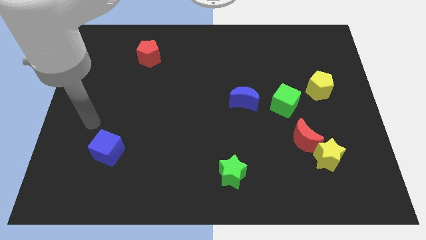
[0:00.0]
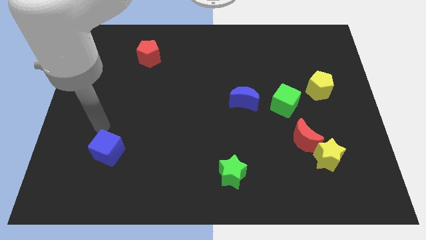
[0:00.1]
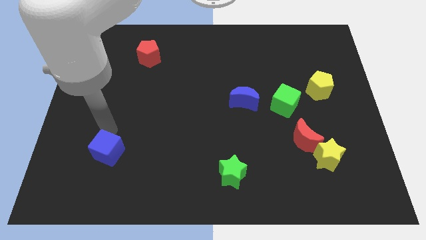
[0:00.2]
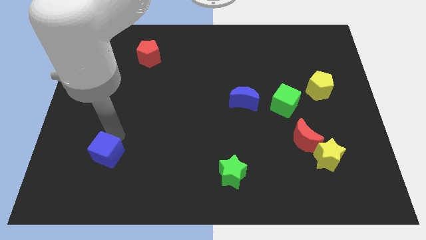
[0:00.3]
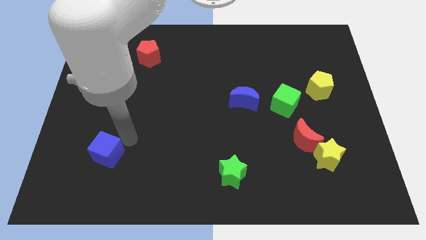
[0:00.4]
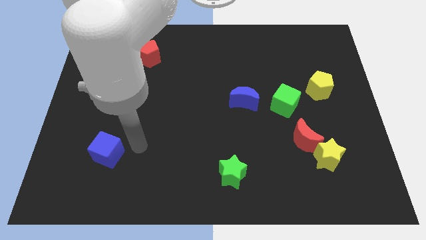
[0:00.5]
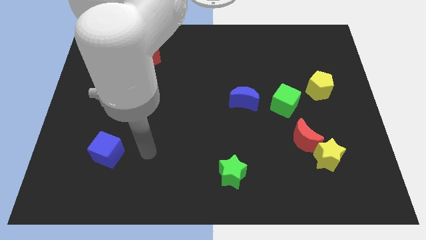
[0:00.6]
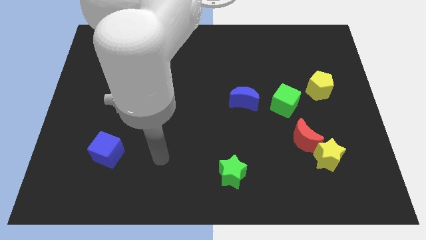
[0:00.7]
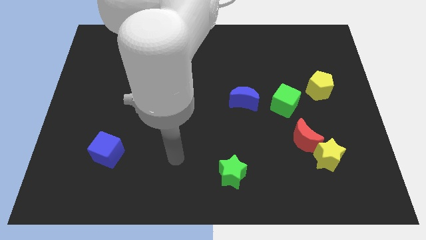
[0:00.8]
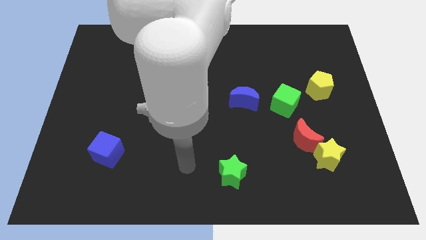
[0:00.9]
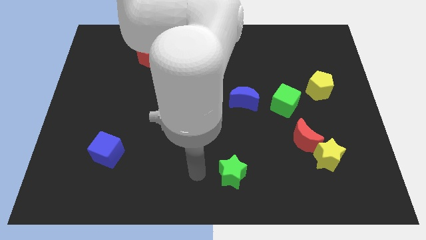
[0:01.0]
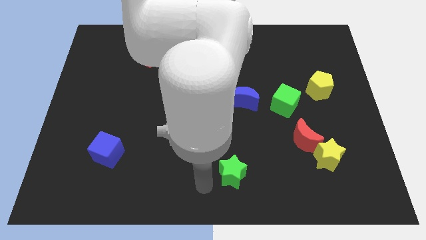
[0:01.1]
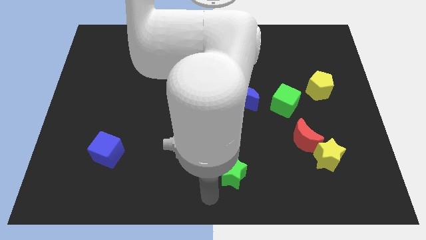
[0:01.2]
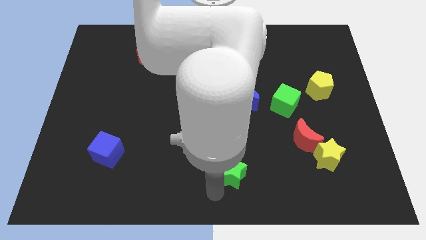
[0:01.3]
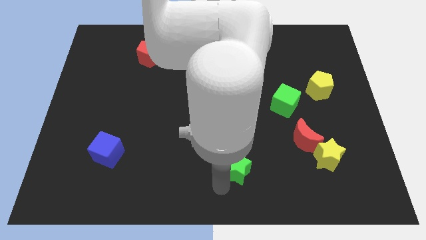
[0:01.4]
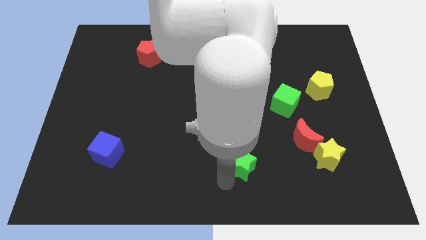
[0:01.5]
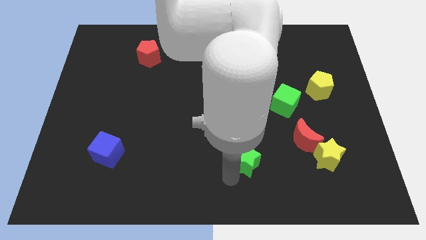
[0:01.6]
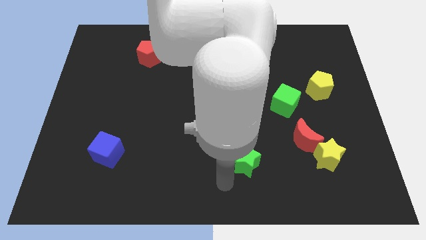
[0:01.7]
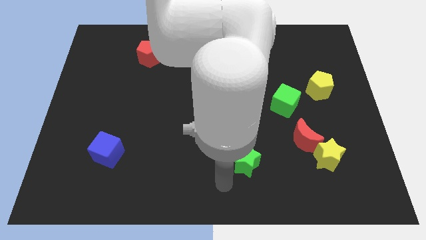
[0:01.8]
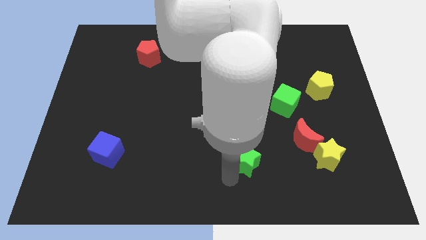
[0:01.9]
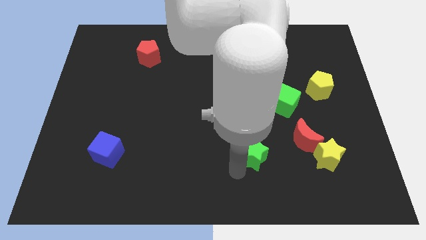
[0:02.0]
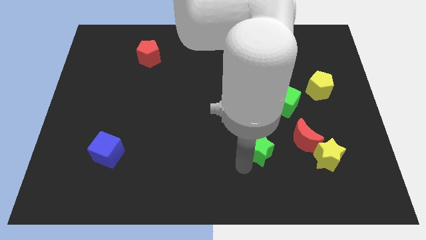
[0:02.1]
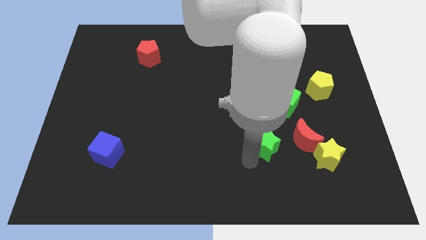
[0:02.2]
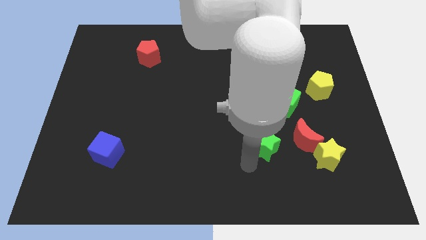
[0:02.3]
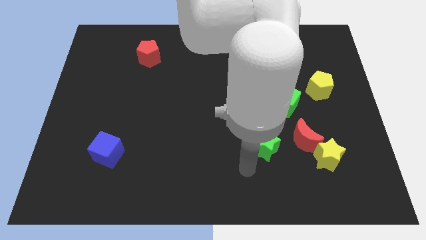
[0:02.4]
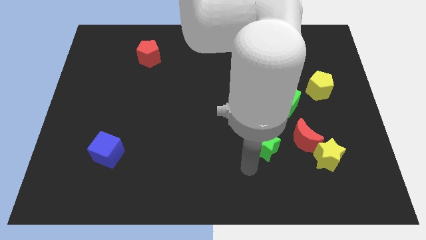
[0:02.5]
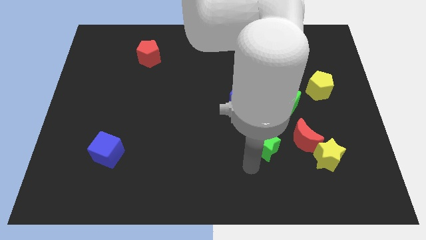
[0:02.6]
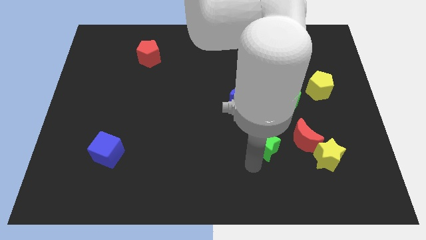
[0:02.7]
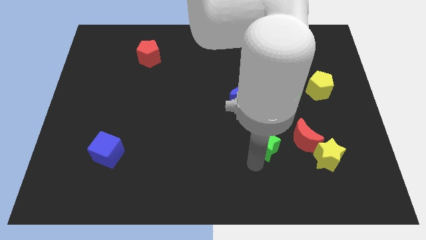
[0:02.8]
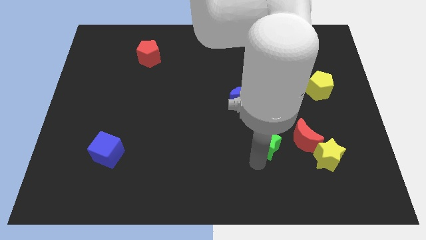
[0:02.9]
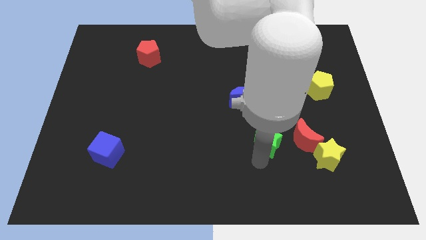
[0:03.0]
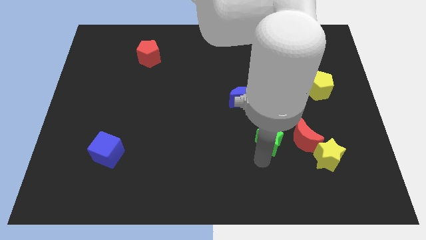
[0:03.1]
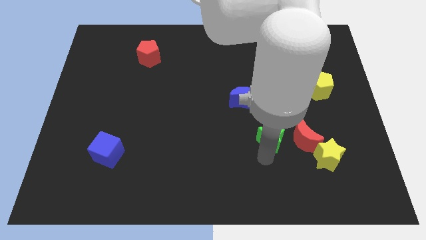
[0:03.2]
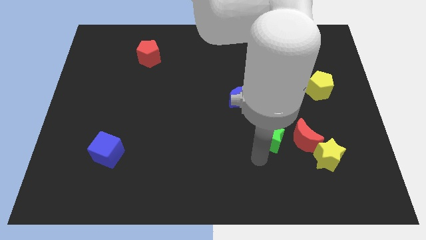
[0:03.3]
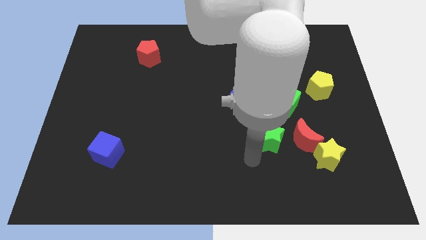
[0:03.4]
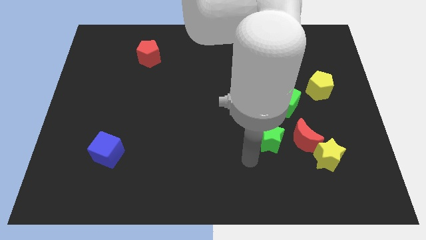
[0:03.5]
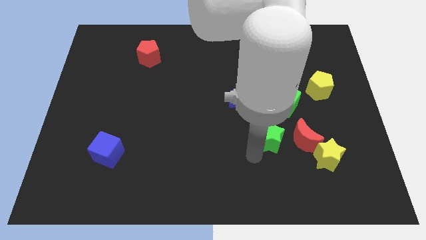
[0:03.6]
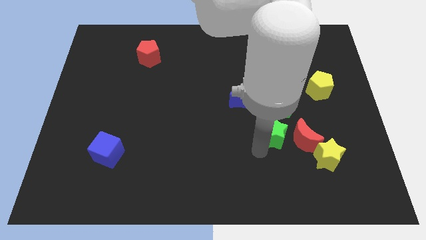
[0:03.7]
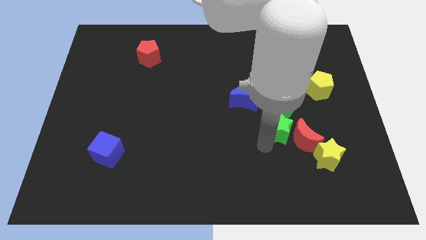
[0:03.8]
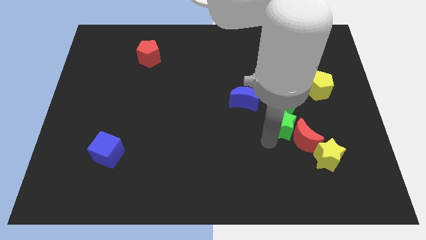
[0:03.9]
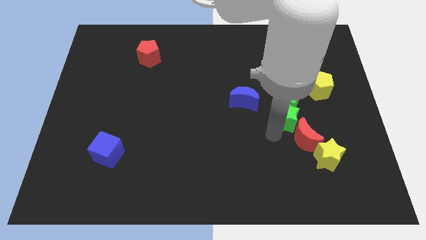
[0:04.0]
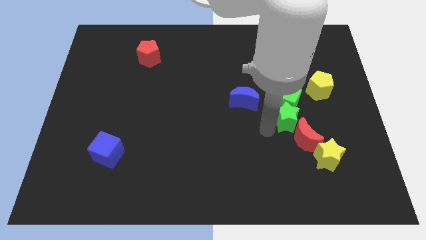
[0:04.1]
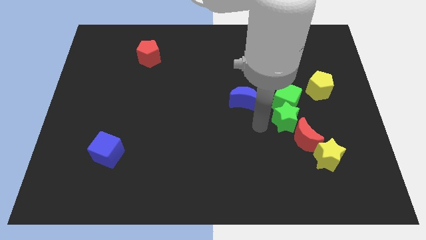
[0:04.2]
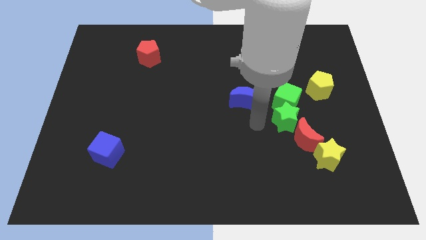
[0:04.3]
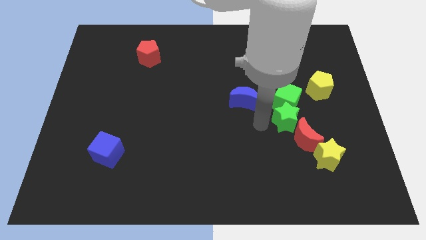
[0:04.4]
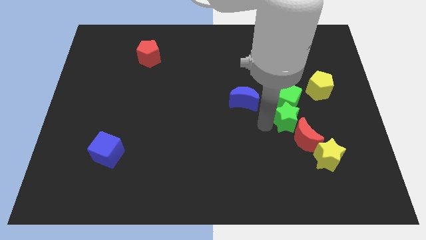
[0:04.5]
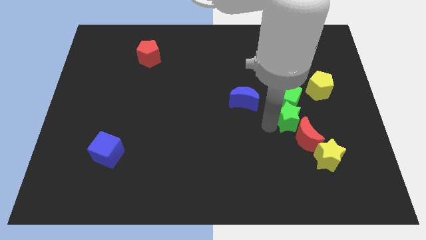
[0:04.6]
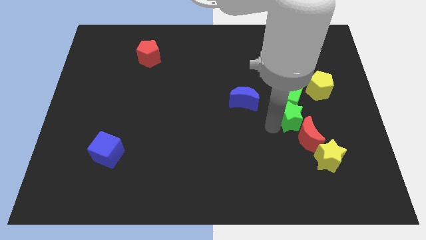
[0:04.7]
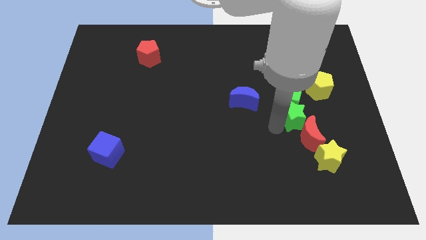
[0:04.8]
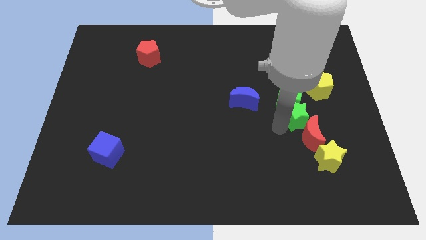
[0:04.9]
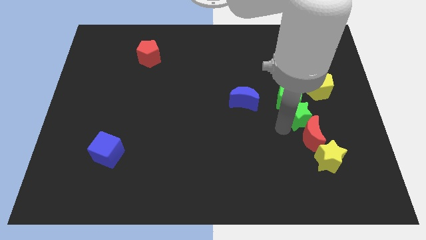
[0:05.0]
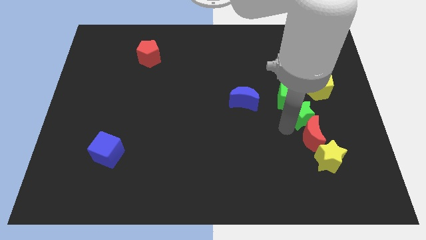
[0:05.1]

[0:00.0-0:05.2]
move the green star to the top of the yellow star

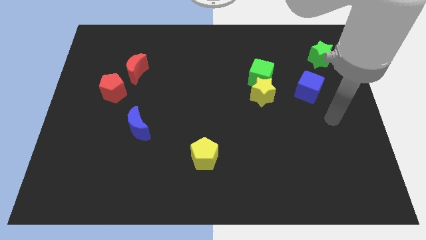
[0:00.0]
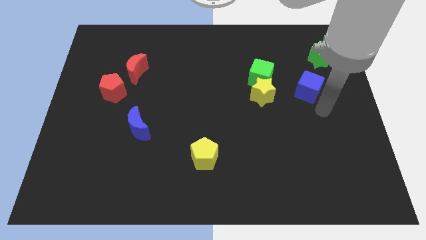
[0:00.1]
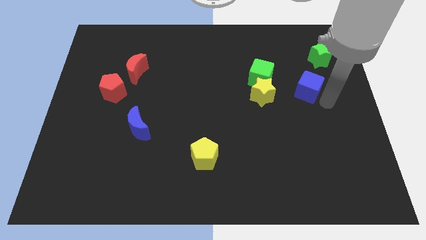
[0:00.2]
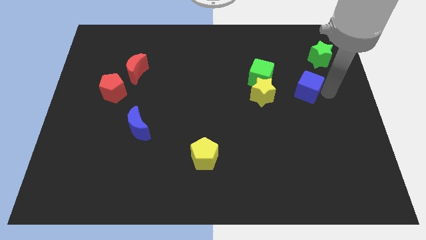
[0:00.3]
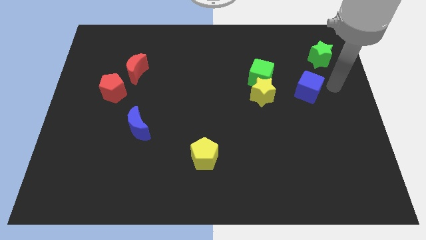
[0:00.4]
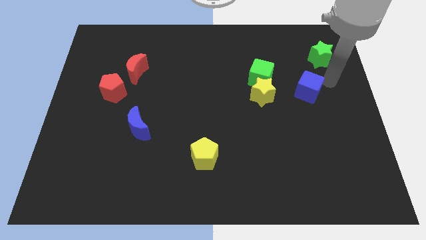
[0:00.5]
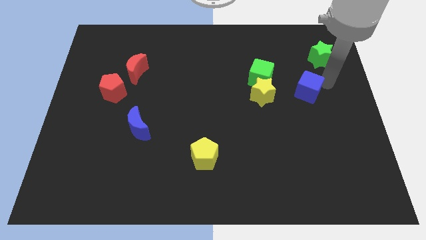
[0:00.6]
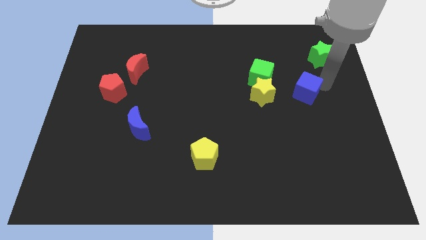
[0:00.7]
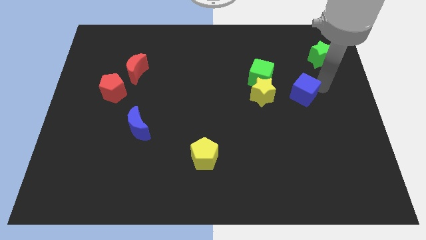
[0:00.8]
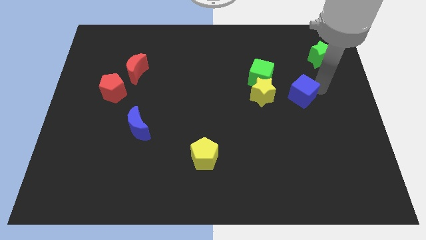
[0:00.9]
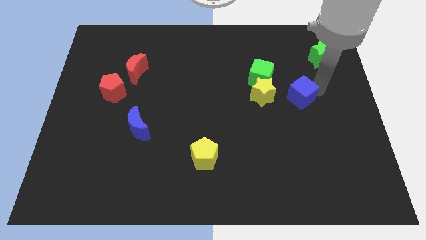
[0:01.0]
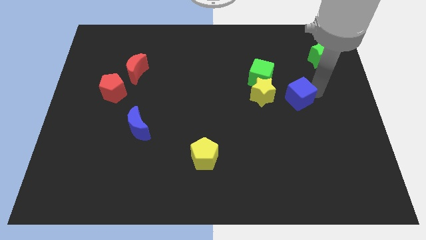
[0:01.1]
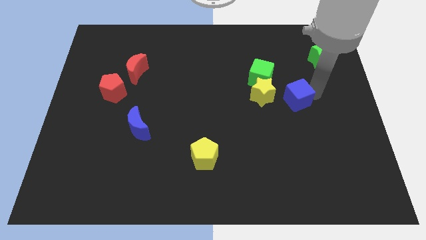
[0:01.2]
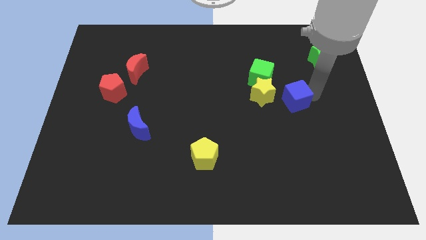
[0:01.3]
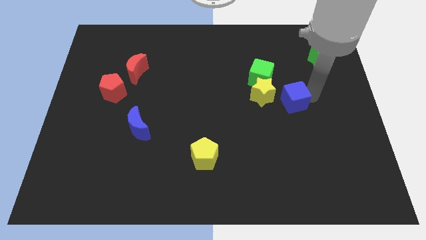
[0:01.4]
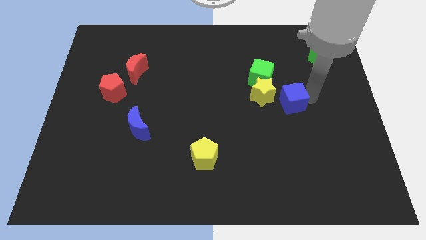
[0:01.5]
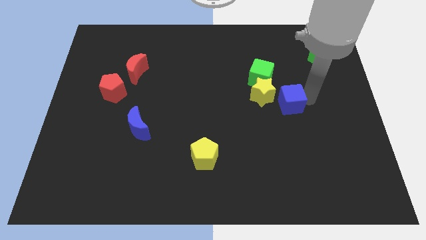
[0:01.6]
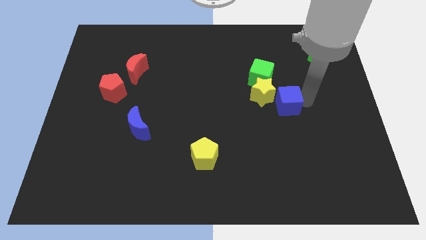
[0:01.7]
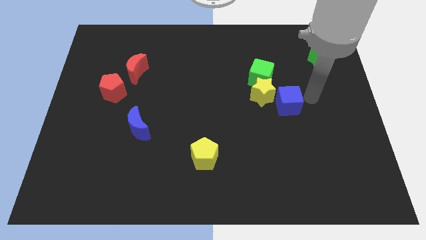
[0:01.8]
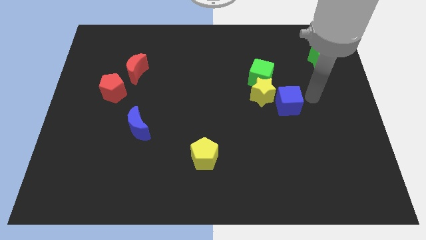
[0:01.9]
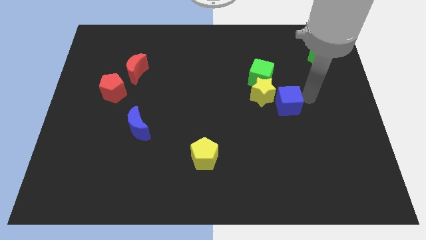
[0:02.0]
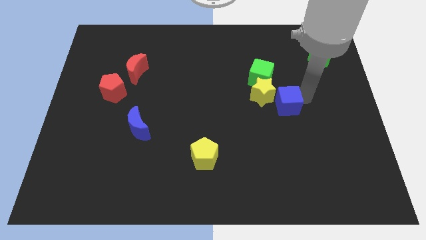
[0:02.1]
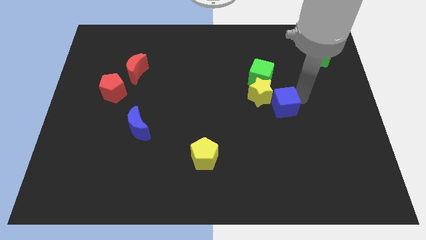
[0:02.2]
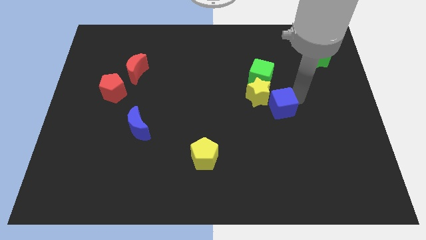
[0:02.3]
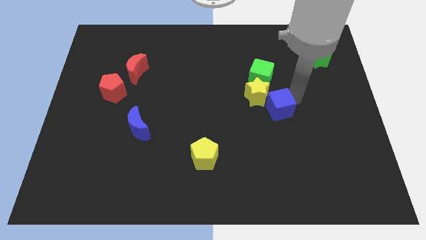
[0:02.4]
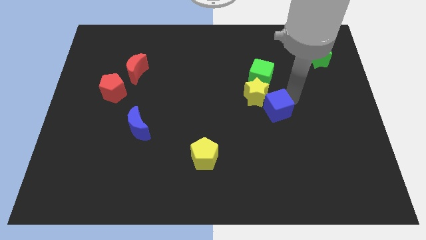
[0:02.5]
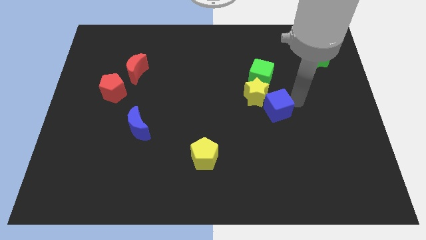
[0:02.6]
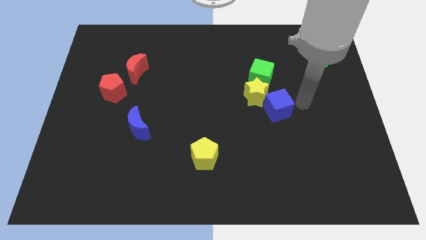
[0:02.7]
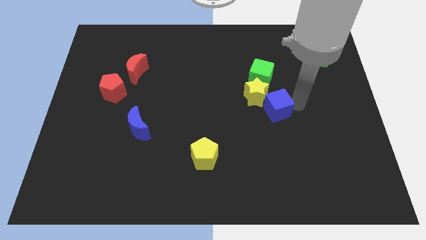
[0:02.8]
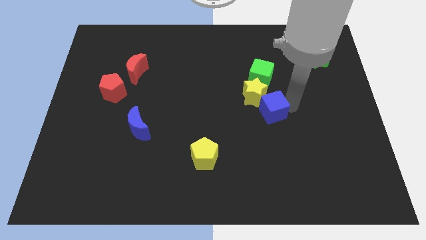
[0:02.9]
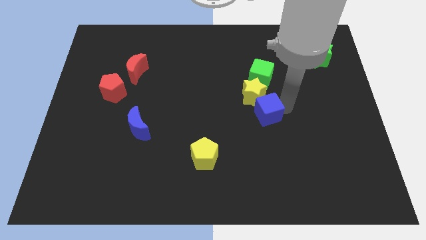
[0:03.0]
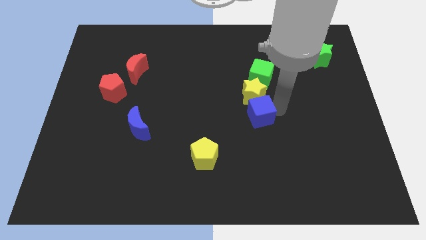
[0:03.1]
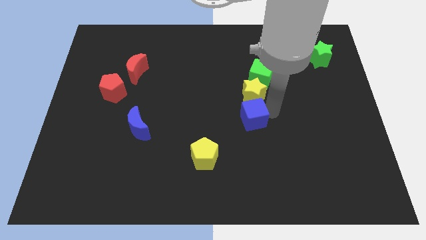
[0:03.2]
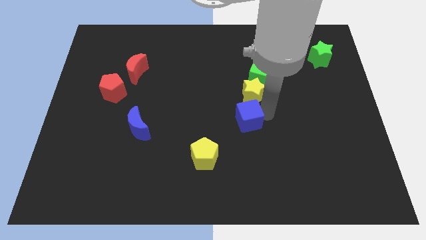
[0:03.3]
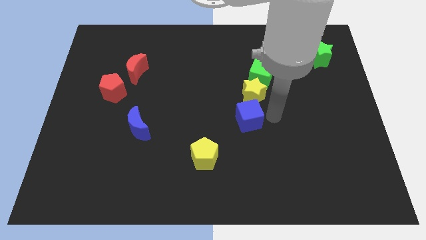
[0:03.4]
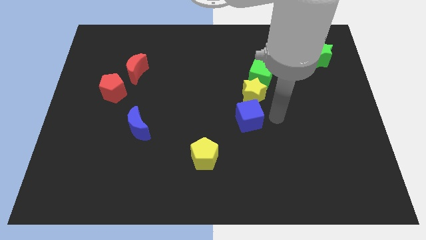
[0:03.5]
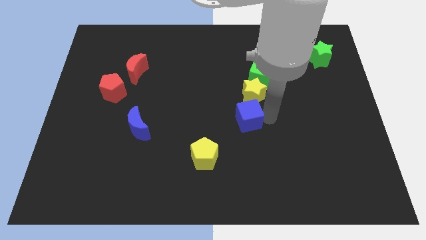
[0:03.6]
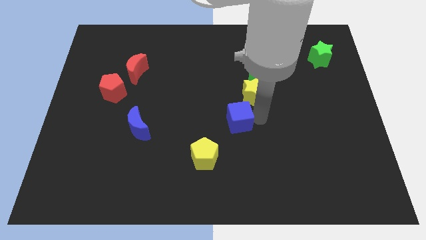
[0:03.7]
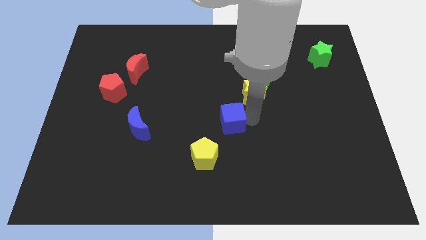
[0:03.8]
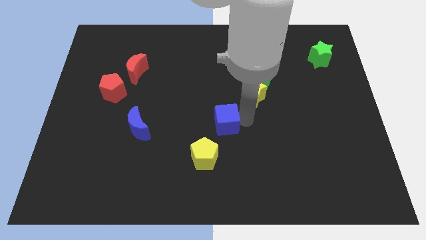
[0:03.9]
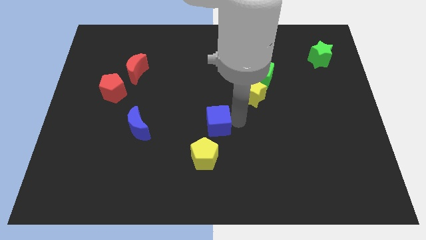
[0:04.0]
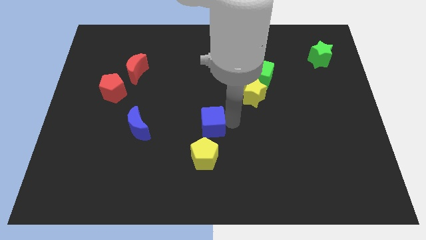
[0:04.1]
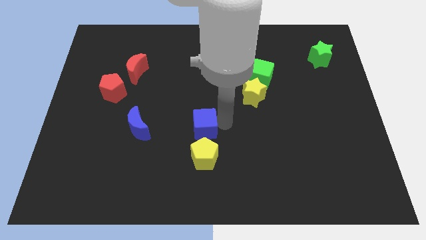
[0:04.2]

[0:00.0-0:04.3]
move the blue cube just right of the blue moon
